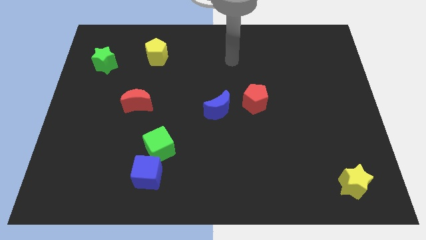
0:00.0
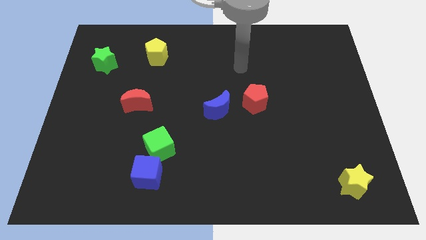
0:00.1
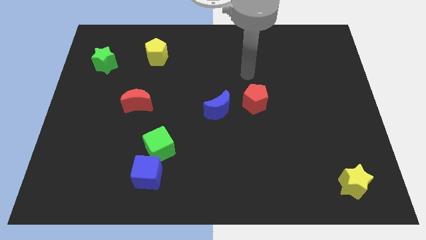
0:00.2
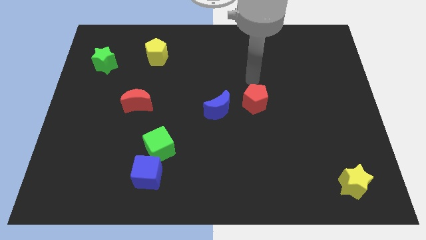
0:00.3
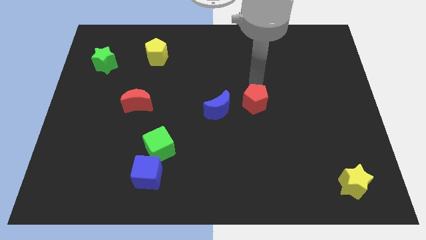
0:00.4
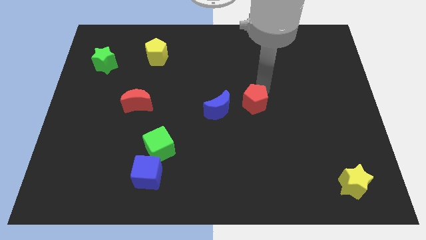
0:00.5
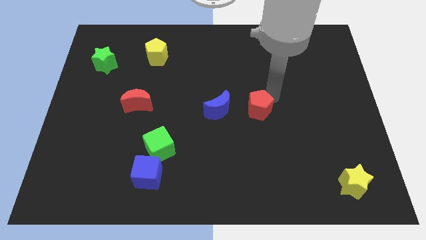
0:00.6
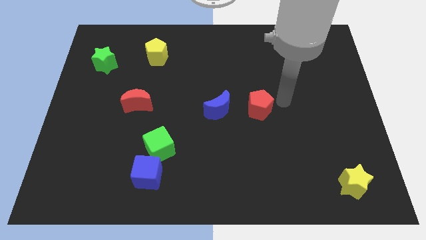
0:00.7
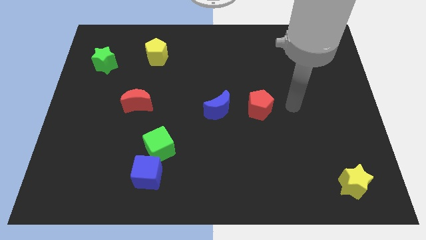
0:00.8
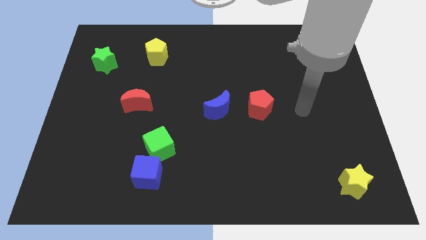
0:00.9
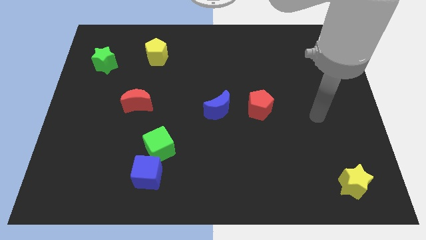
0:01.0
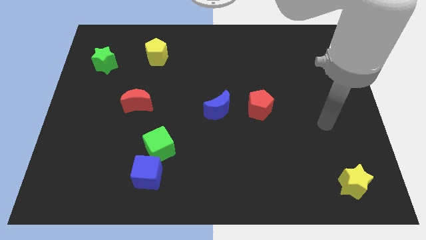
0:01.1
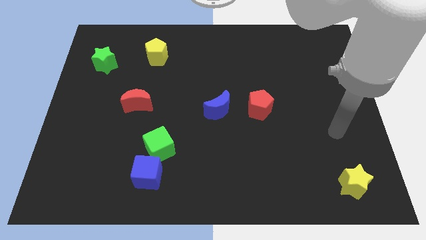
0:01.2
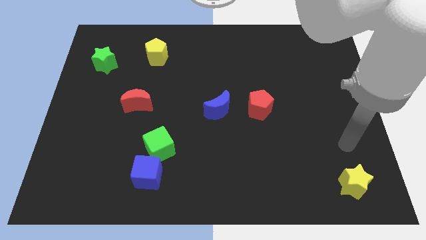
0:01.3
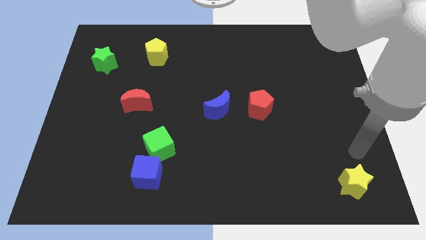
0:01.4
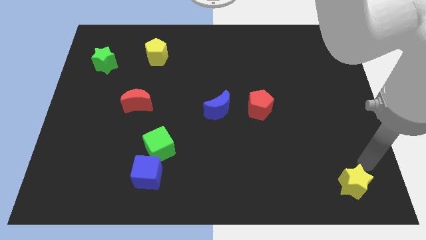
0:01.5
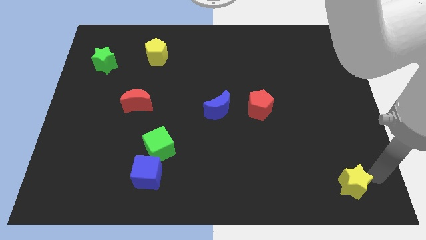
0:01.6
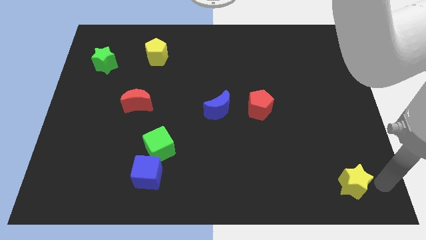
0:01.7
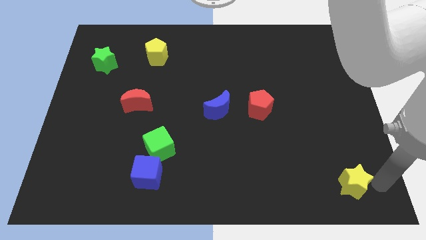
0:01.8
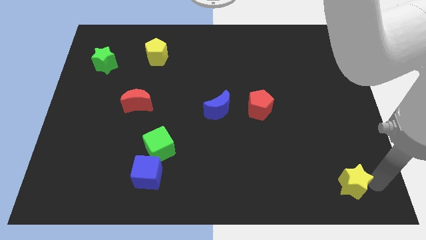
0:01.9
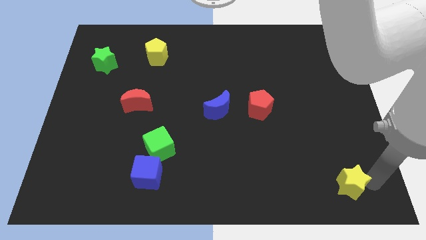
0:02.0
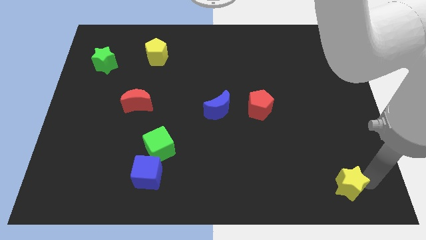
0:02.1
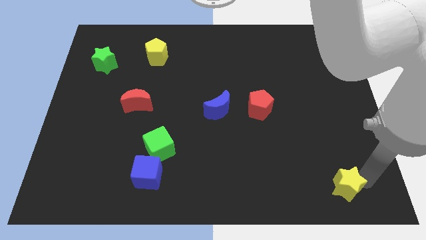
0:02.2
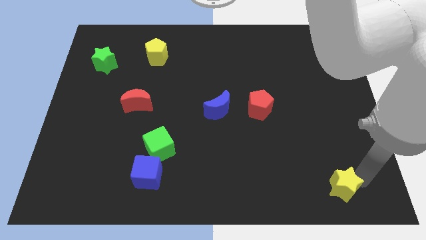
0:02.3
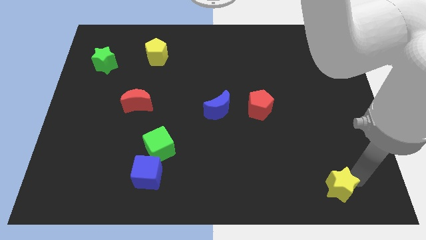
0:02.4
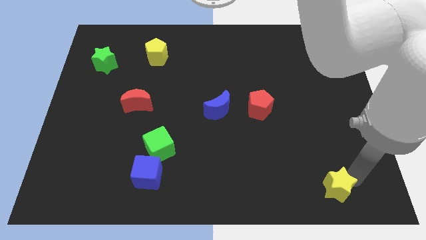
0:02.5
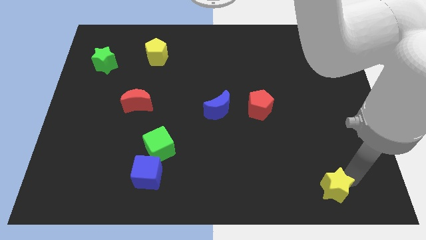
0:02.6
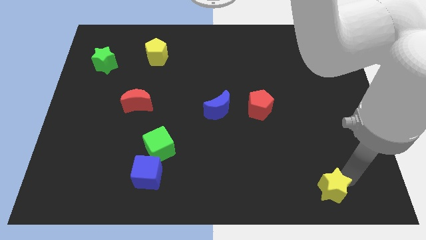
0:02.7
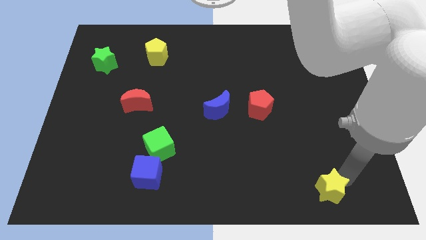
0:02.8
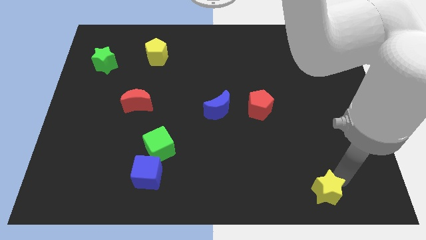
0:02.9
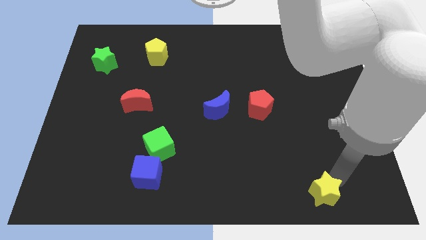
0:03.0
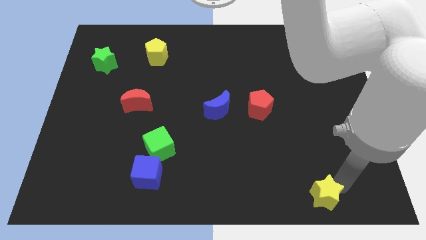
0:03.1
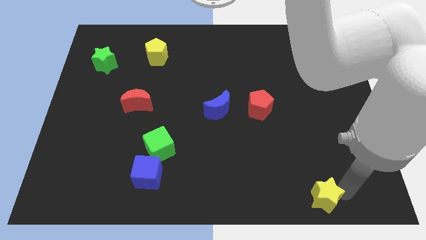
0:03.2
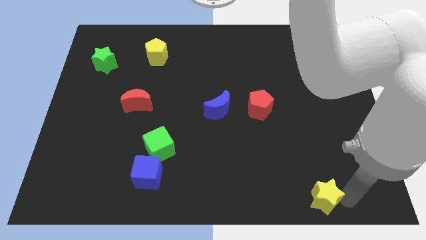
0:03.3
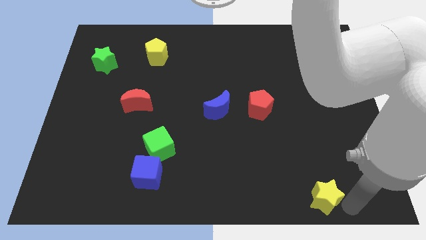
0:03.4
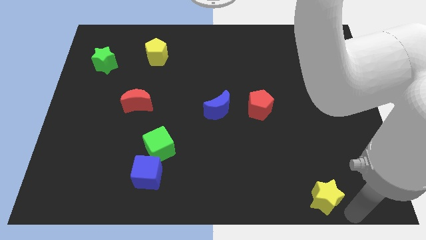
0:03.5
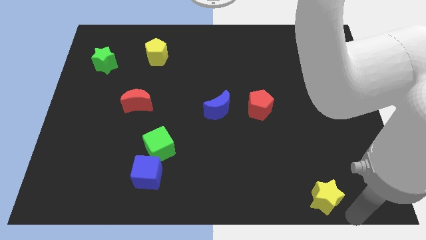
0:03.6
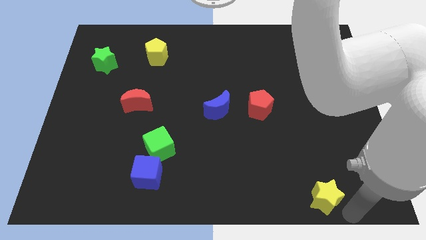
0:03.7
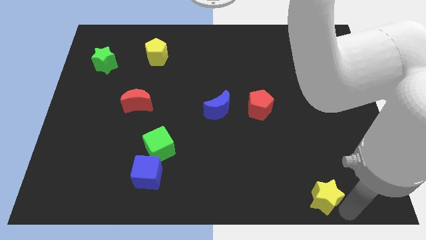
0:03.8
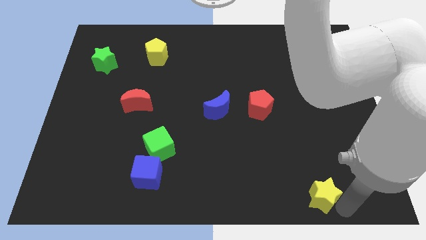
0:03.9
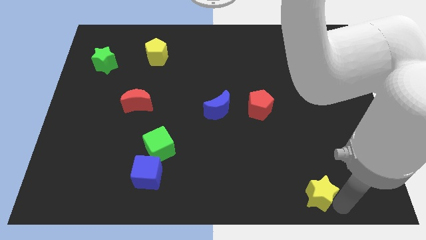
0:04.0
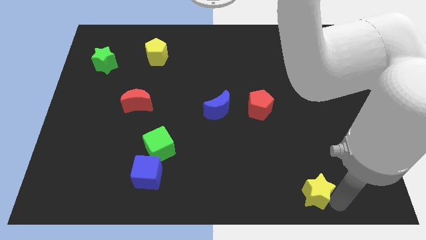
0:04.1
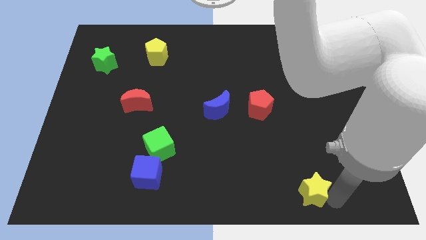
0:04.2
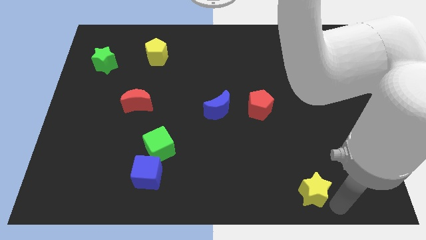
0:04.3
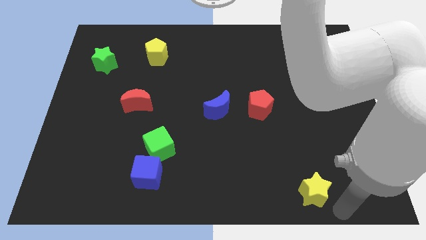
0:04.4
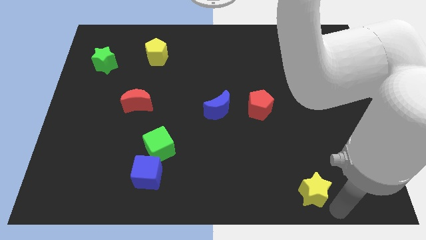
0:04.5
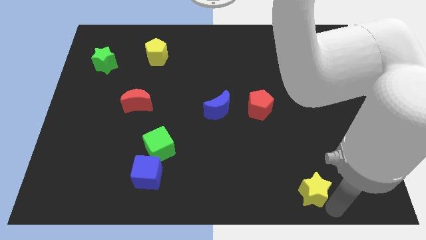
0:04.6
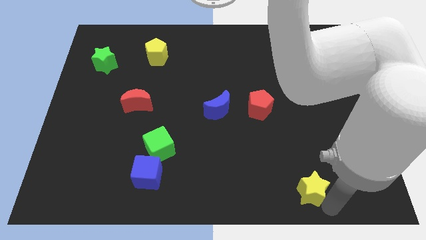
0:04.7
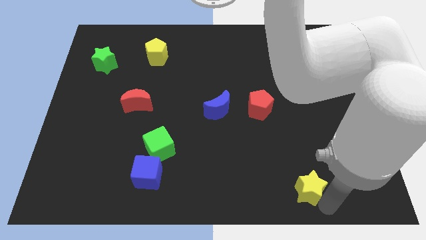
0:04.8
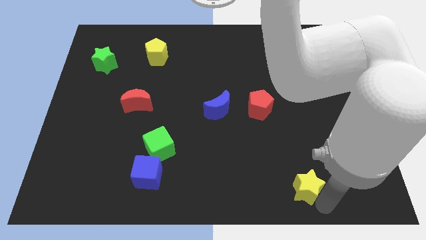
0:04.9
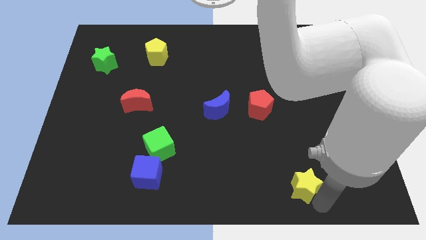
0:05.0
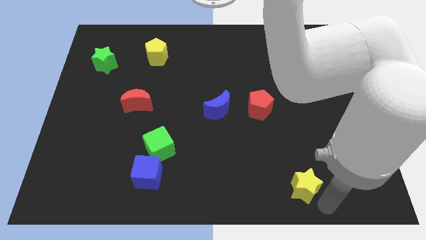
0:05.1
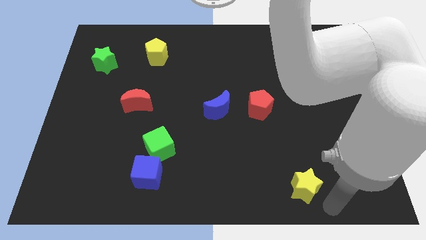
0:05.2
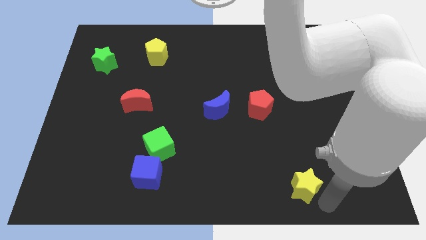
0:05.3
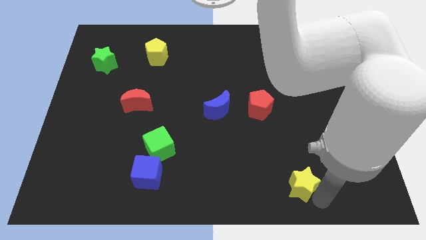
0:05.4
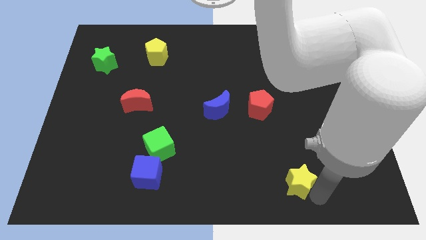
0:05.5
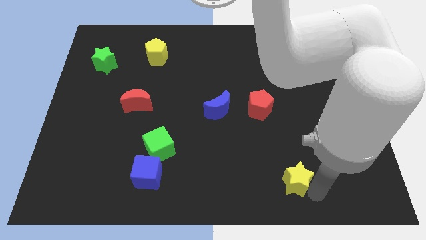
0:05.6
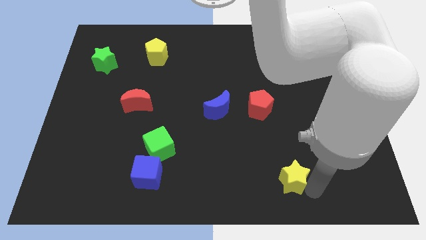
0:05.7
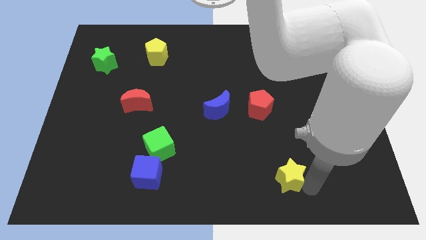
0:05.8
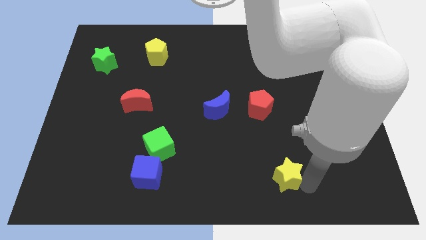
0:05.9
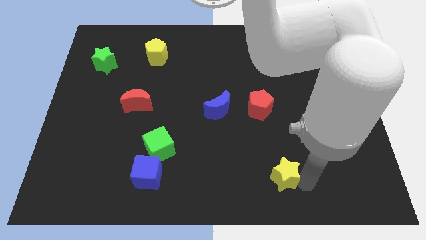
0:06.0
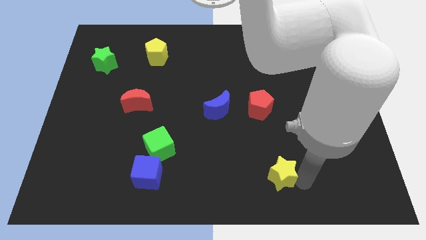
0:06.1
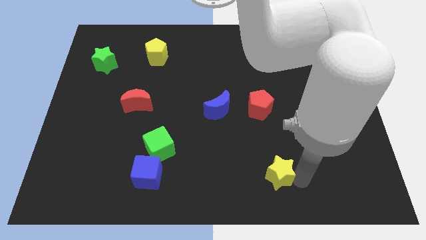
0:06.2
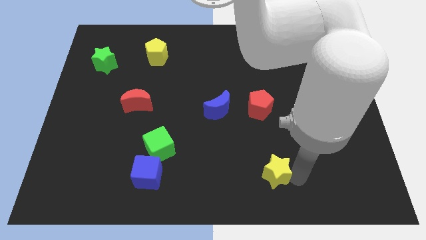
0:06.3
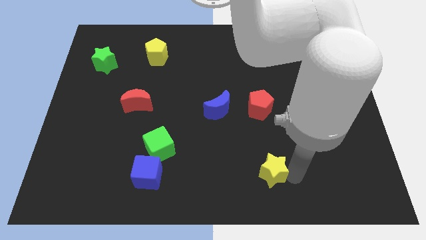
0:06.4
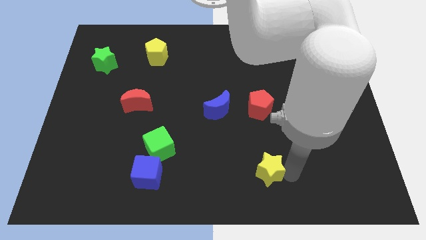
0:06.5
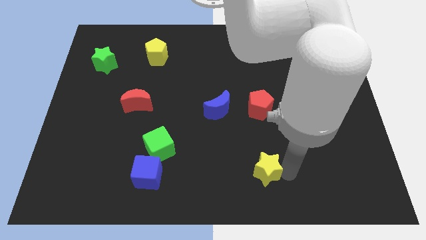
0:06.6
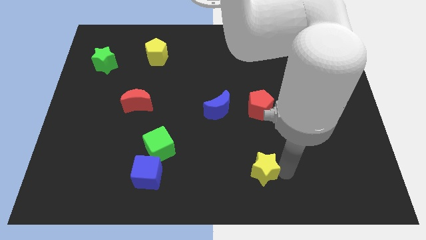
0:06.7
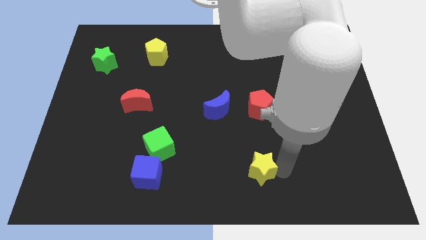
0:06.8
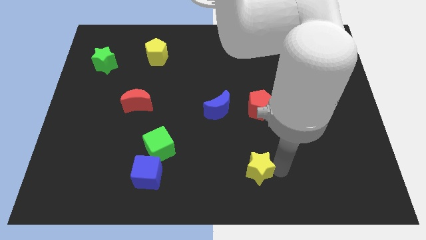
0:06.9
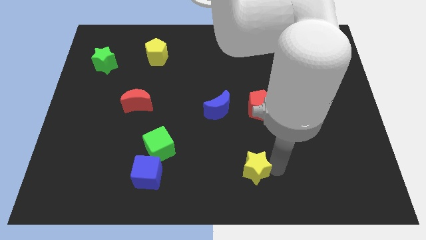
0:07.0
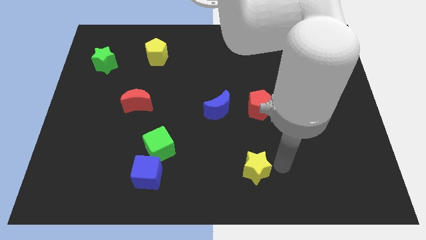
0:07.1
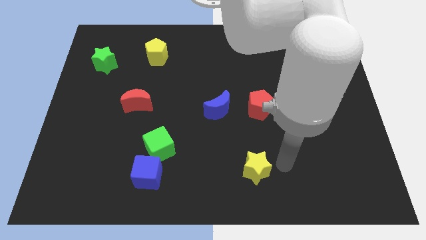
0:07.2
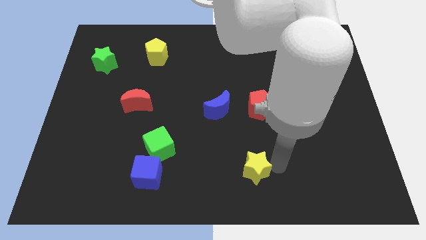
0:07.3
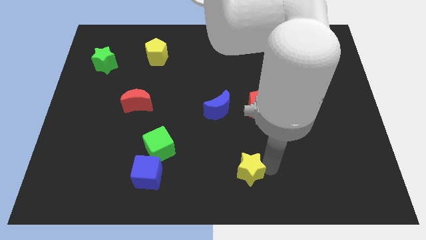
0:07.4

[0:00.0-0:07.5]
slide the yellow star left

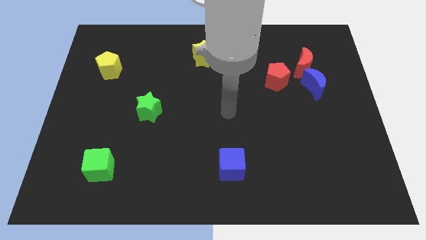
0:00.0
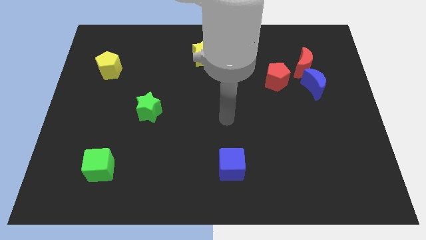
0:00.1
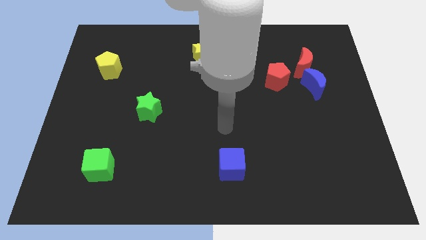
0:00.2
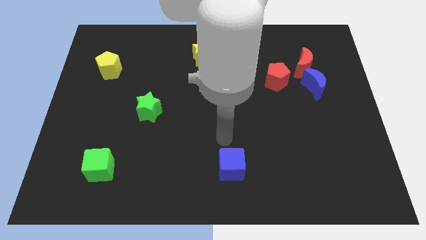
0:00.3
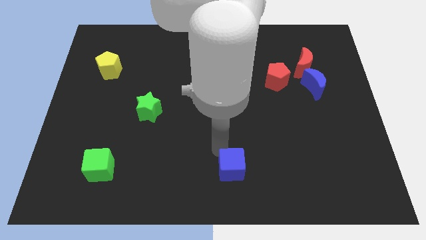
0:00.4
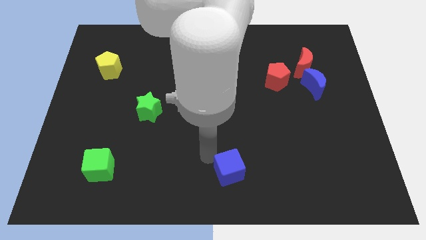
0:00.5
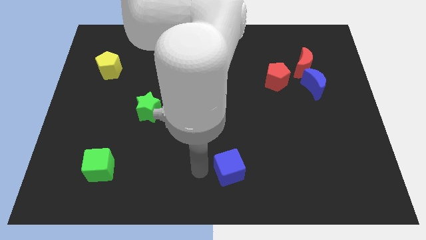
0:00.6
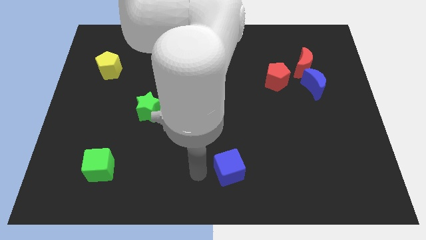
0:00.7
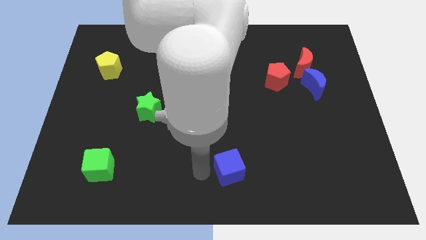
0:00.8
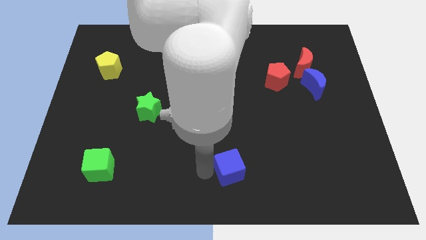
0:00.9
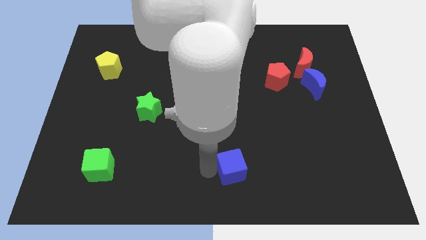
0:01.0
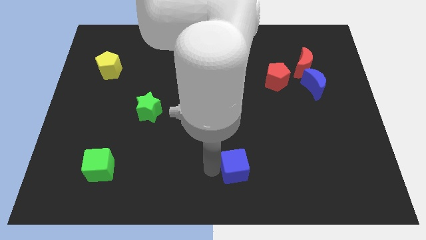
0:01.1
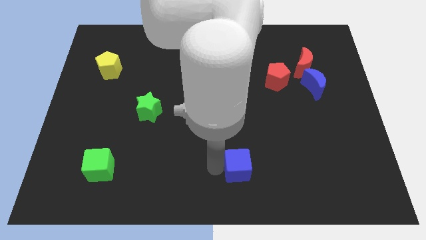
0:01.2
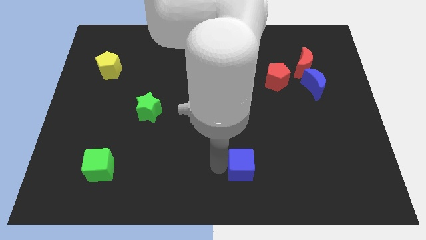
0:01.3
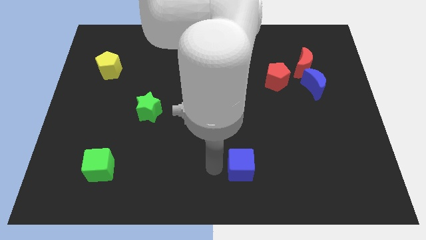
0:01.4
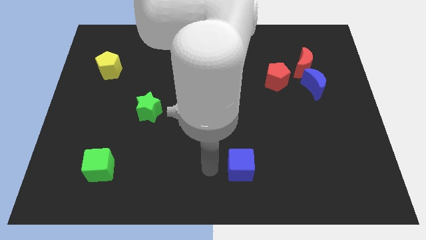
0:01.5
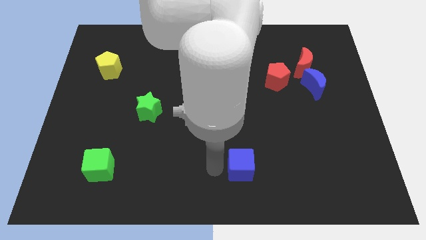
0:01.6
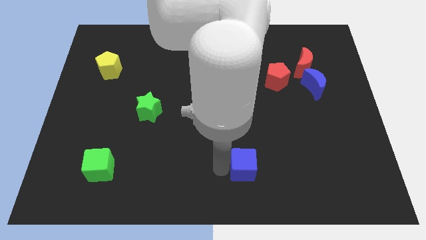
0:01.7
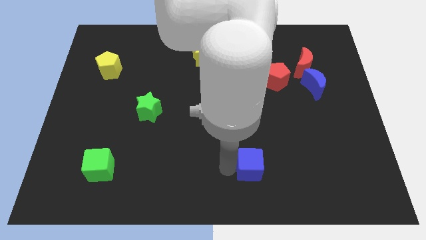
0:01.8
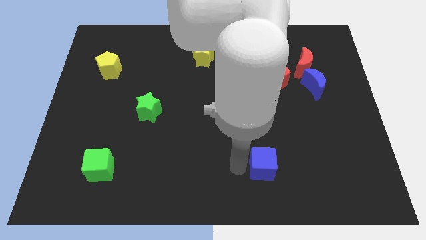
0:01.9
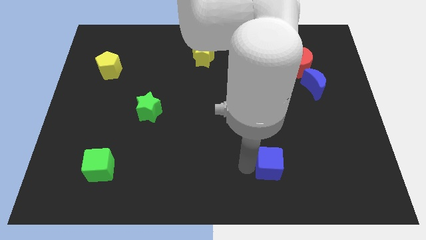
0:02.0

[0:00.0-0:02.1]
slightly slide the blue cube right
